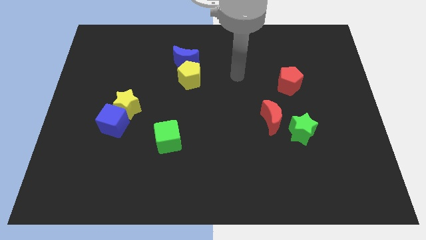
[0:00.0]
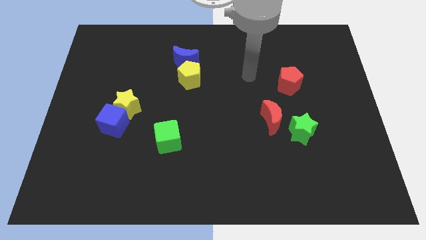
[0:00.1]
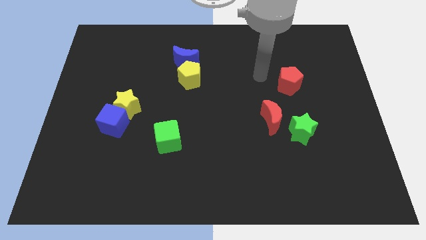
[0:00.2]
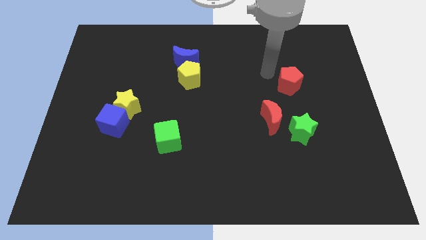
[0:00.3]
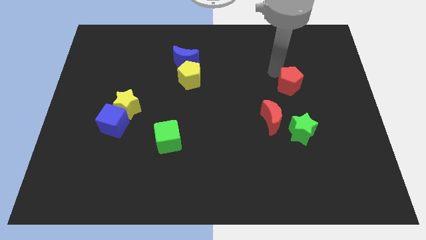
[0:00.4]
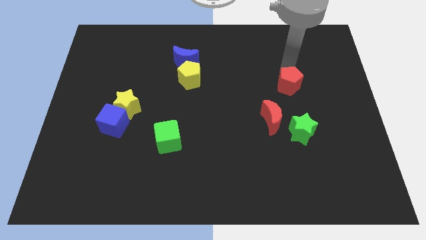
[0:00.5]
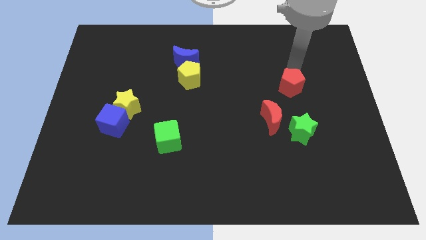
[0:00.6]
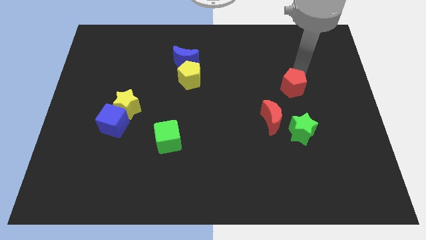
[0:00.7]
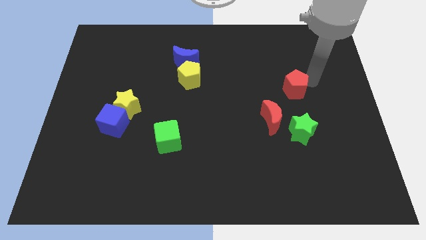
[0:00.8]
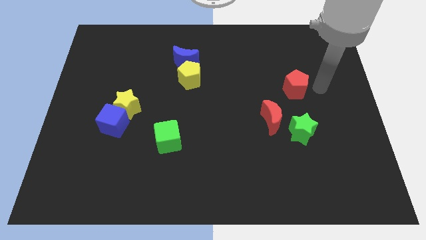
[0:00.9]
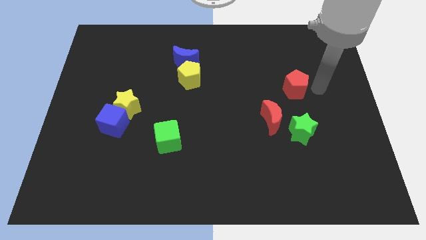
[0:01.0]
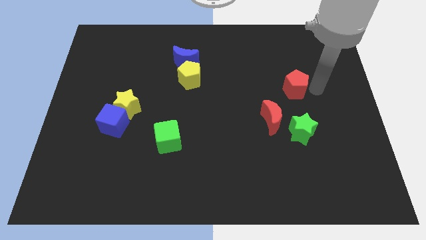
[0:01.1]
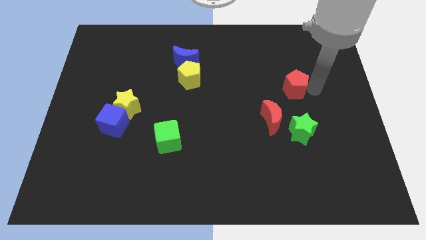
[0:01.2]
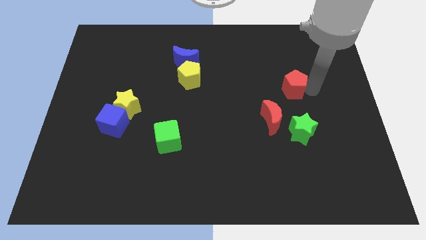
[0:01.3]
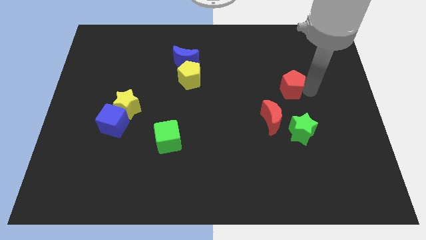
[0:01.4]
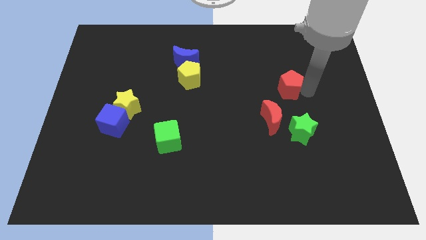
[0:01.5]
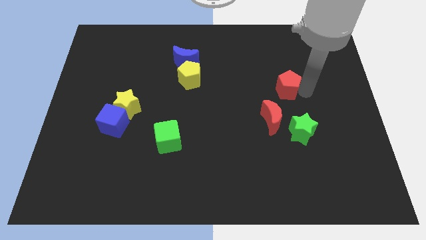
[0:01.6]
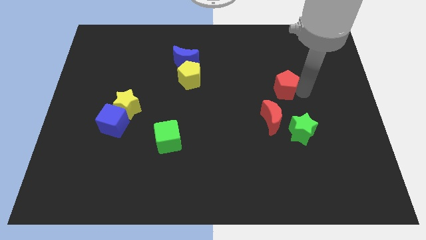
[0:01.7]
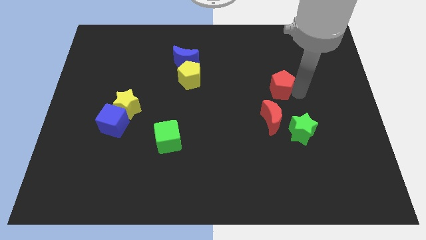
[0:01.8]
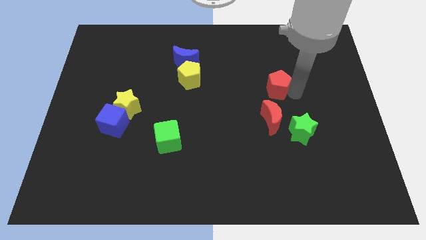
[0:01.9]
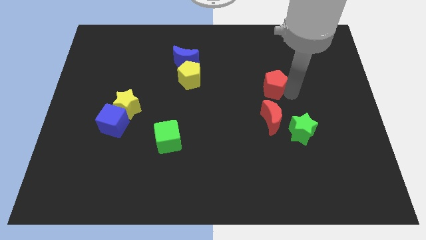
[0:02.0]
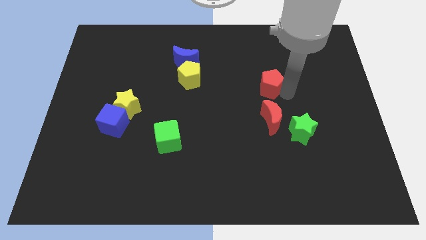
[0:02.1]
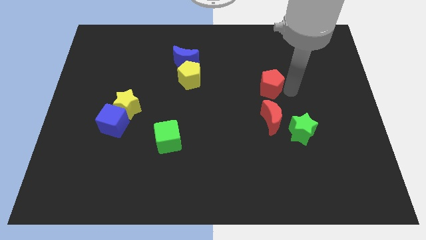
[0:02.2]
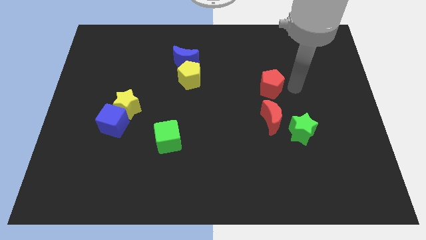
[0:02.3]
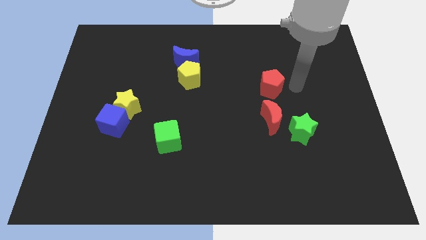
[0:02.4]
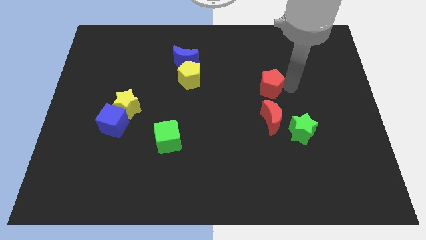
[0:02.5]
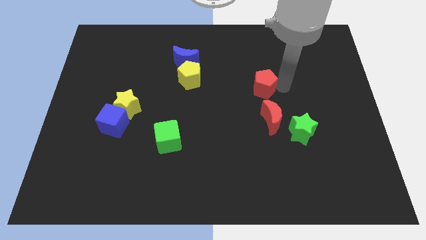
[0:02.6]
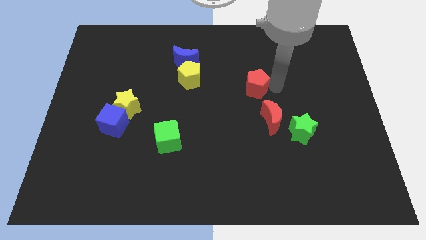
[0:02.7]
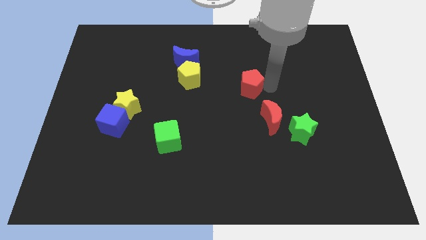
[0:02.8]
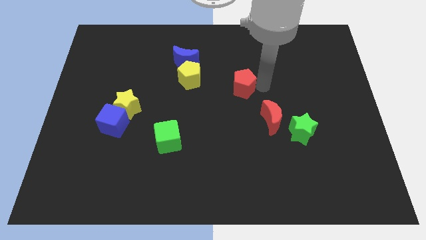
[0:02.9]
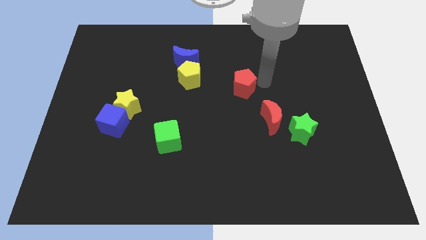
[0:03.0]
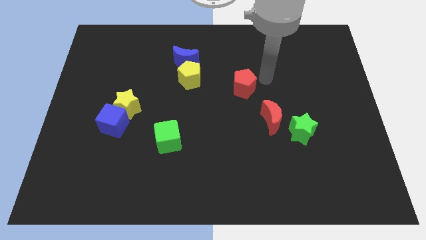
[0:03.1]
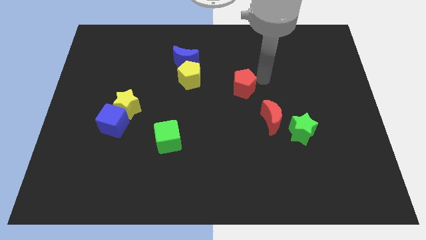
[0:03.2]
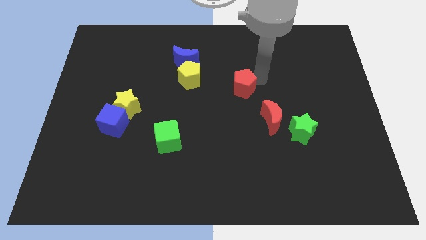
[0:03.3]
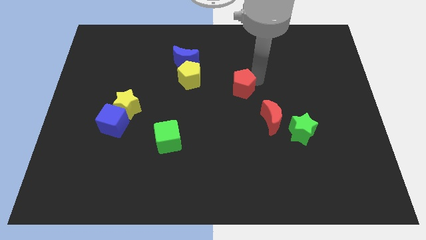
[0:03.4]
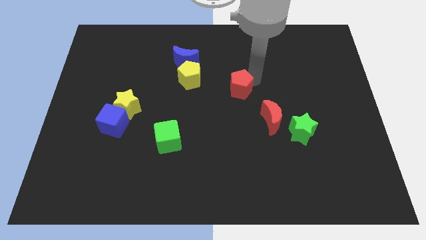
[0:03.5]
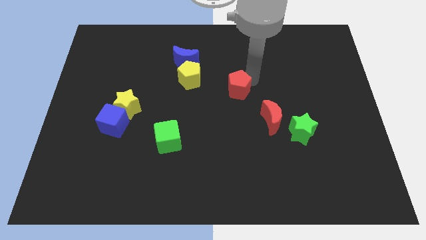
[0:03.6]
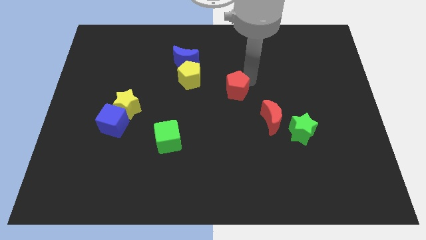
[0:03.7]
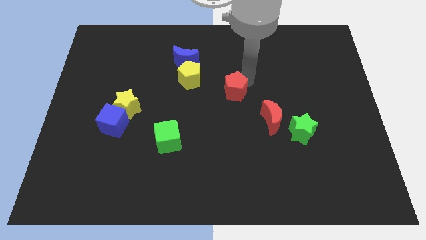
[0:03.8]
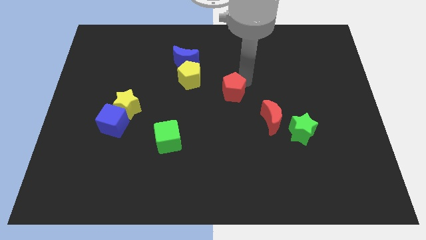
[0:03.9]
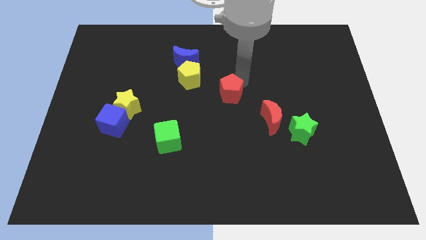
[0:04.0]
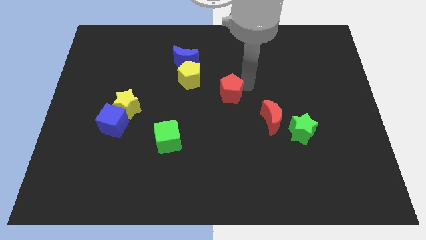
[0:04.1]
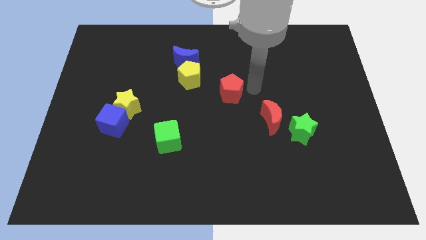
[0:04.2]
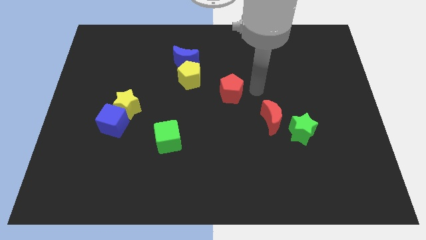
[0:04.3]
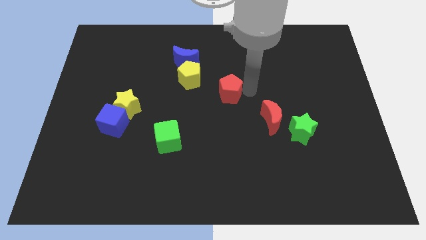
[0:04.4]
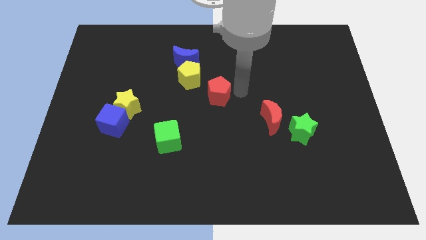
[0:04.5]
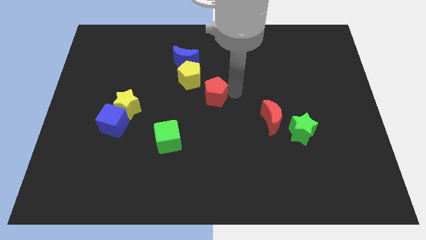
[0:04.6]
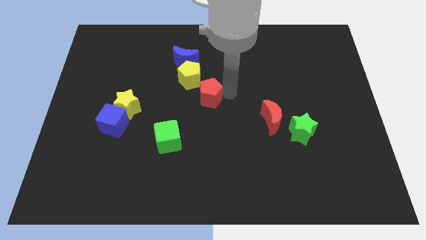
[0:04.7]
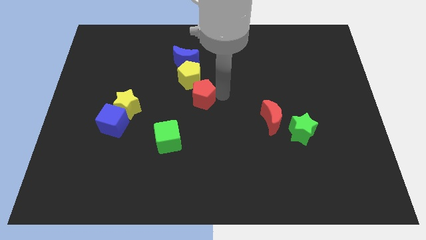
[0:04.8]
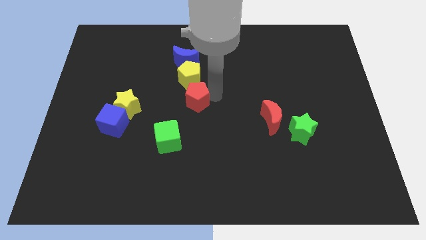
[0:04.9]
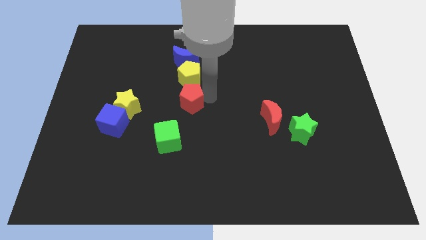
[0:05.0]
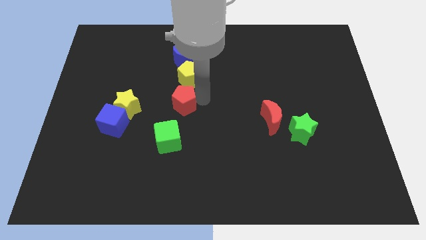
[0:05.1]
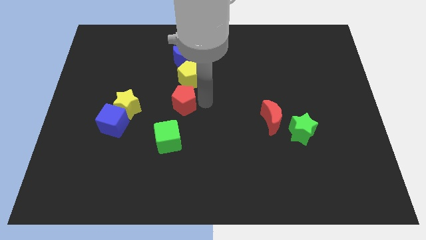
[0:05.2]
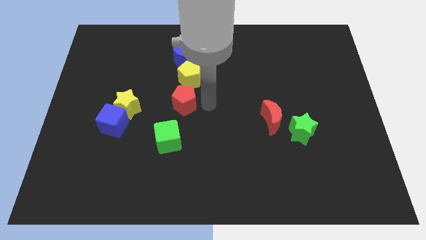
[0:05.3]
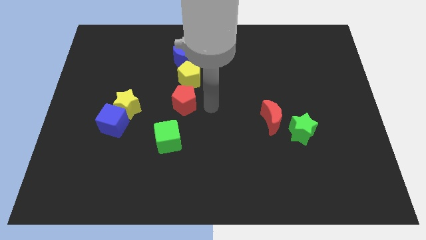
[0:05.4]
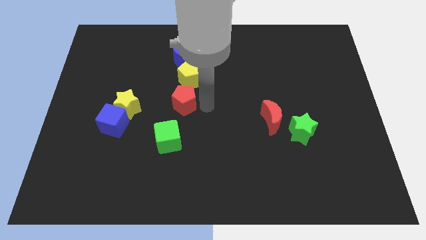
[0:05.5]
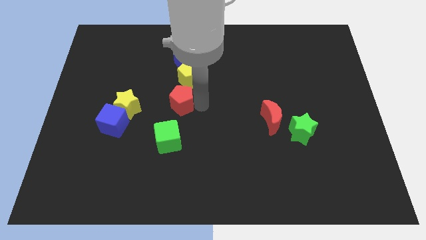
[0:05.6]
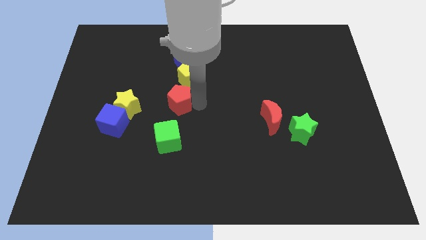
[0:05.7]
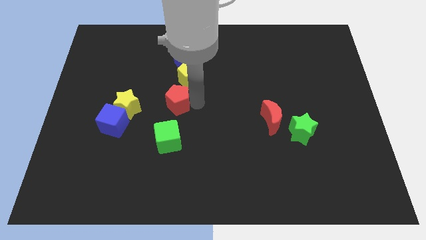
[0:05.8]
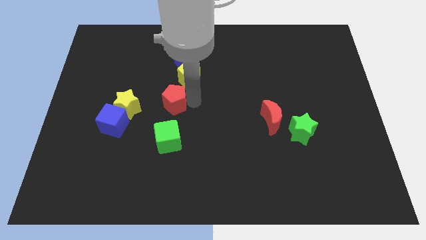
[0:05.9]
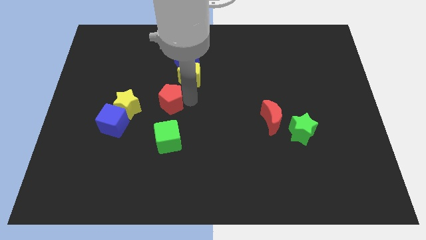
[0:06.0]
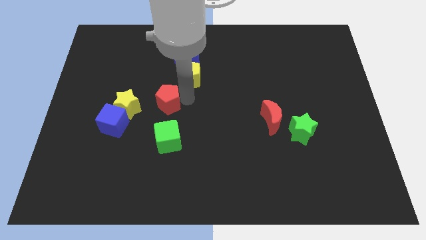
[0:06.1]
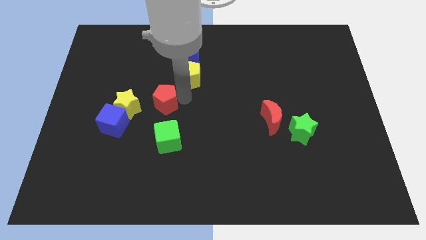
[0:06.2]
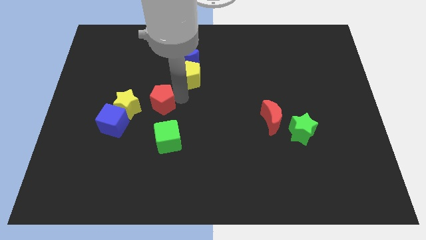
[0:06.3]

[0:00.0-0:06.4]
slide the red pentagon to the top right side of the blue cube
